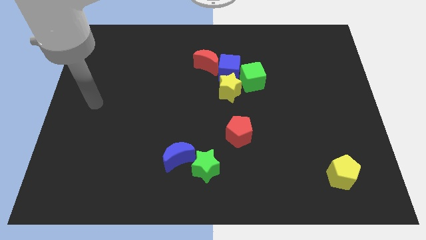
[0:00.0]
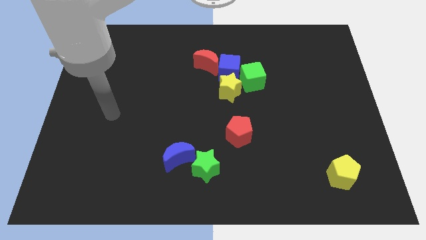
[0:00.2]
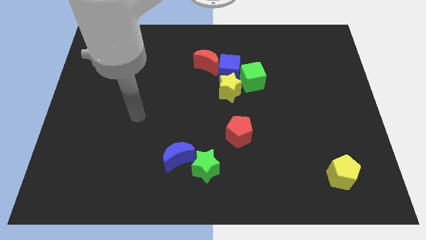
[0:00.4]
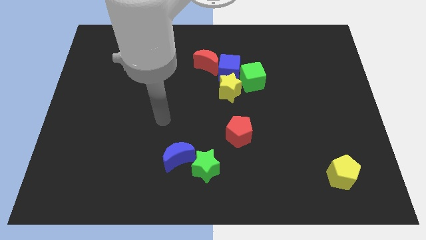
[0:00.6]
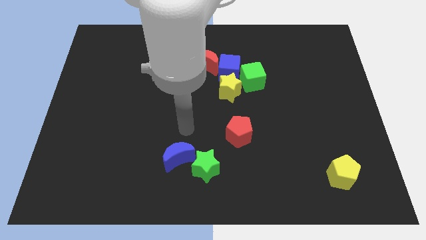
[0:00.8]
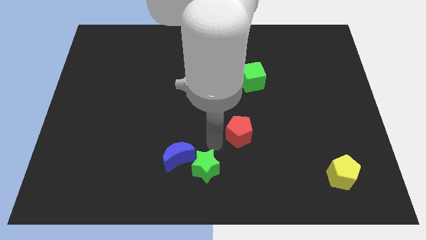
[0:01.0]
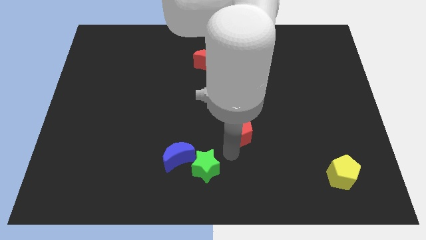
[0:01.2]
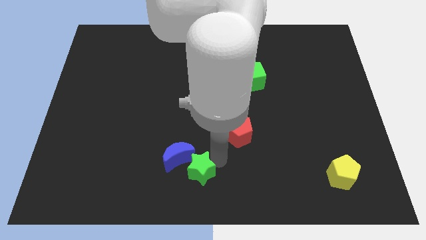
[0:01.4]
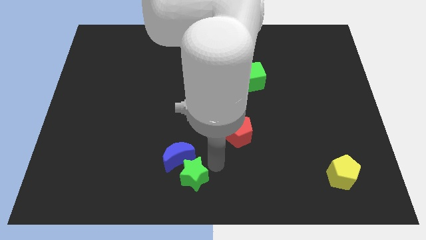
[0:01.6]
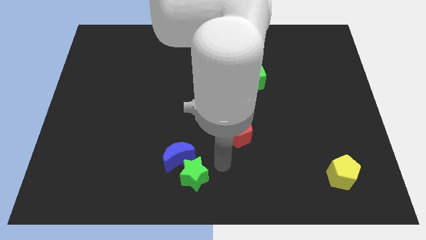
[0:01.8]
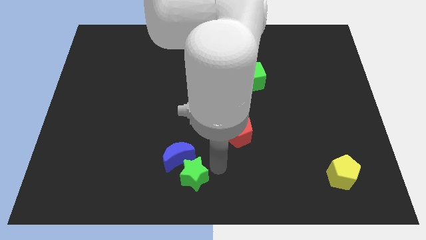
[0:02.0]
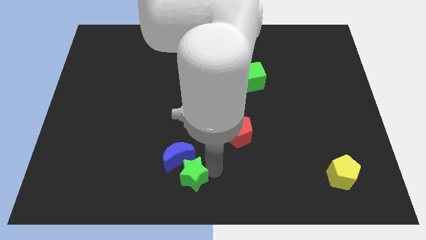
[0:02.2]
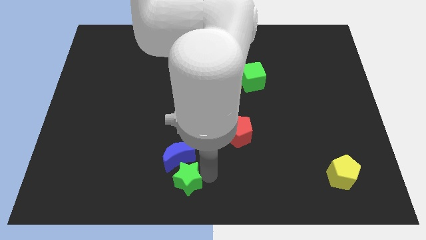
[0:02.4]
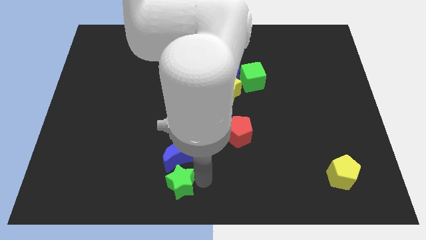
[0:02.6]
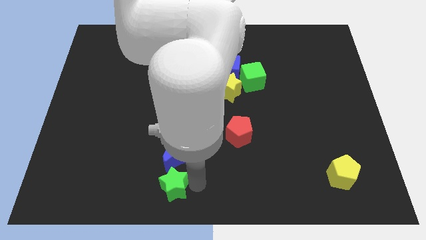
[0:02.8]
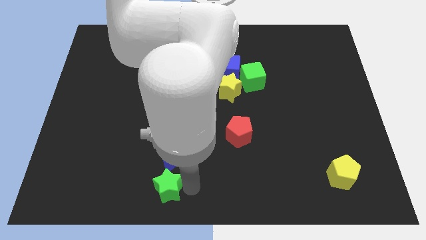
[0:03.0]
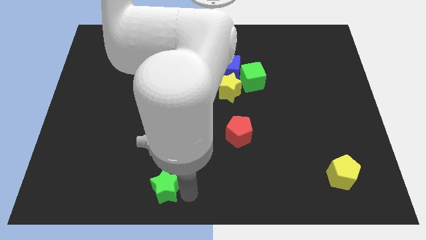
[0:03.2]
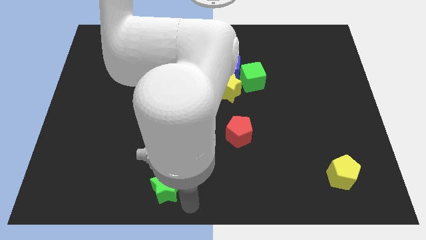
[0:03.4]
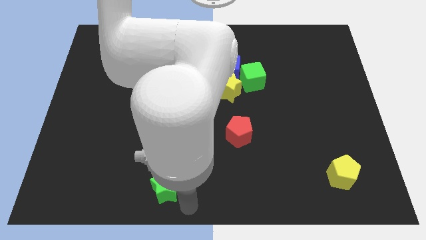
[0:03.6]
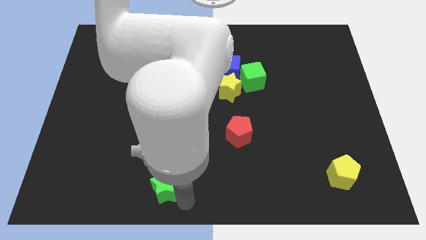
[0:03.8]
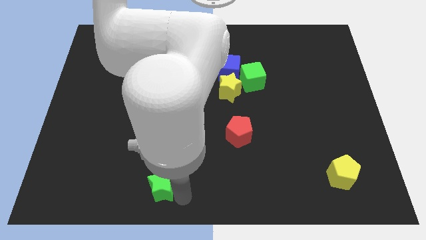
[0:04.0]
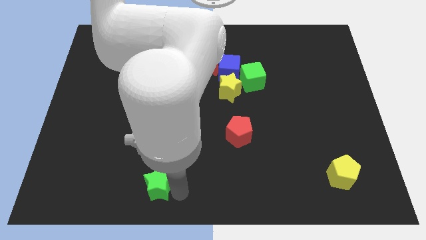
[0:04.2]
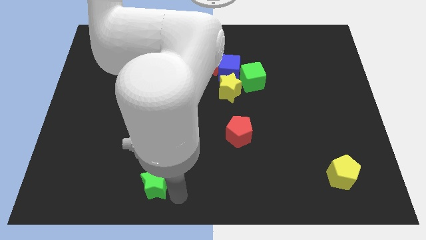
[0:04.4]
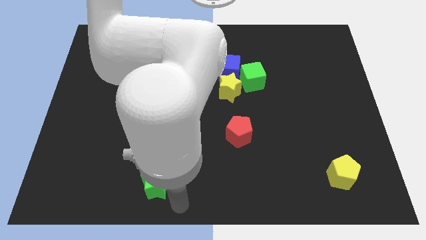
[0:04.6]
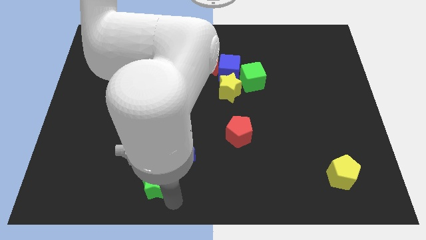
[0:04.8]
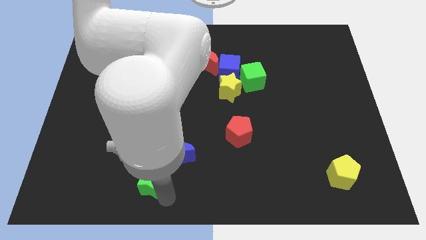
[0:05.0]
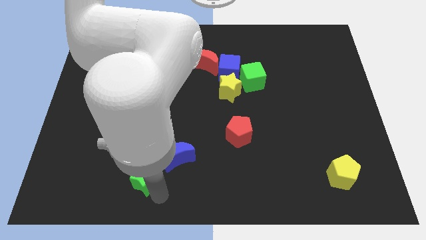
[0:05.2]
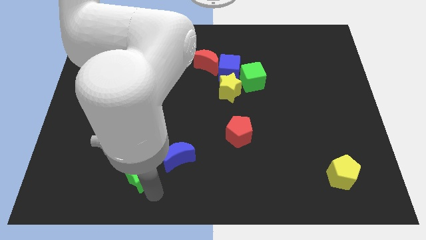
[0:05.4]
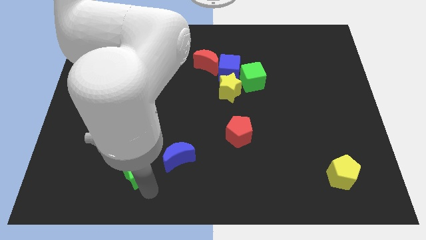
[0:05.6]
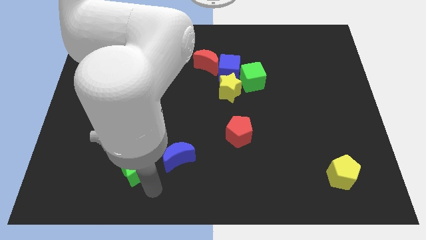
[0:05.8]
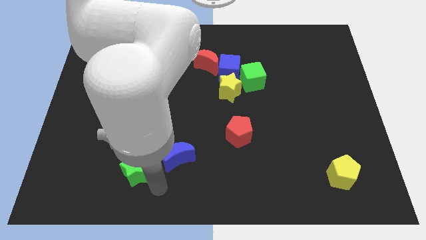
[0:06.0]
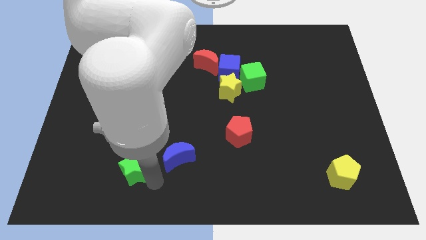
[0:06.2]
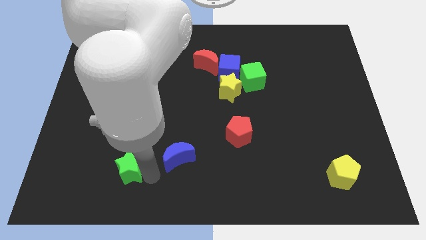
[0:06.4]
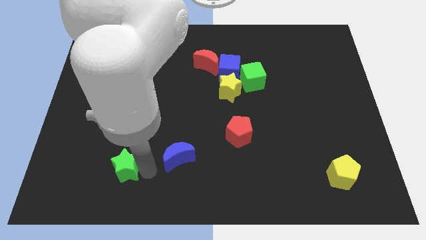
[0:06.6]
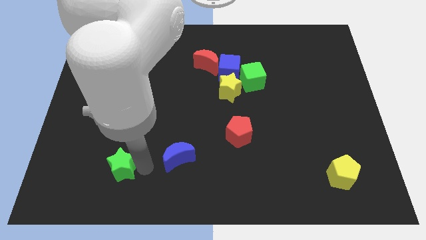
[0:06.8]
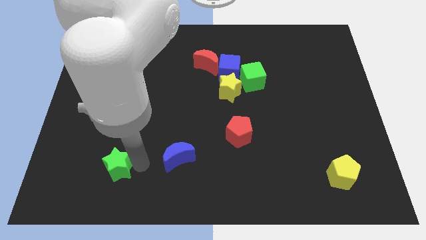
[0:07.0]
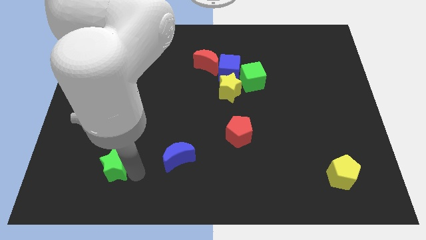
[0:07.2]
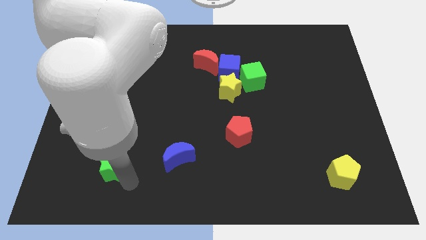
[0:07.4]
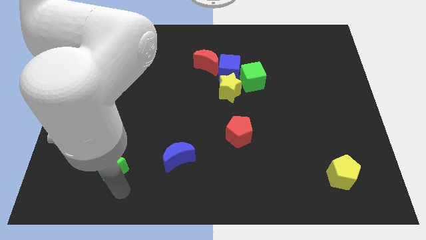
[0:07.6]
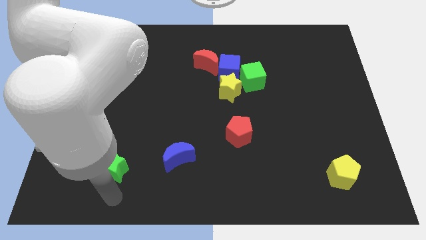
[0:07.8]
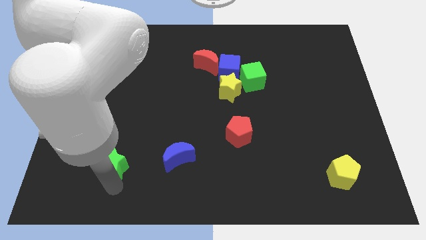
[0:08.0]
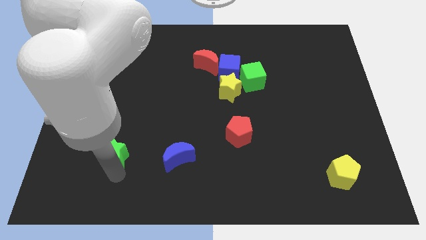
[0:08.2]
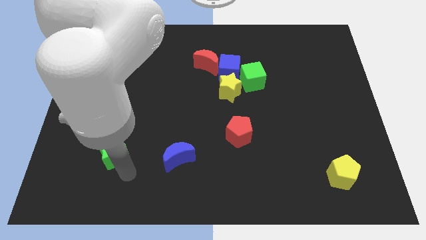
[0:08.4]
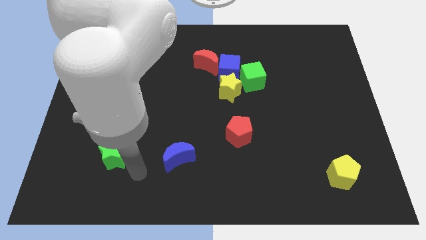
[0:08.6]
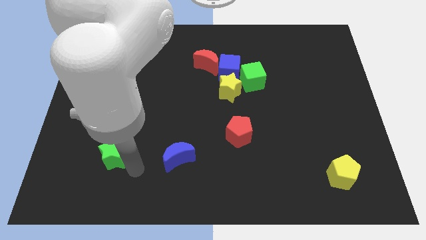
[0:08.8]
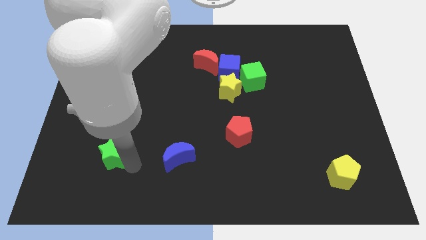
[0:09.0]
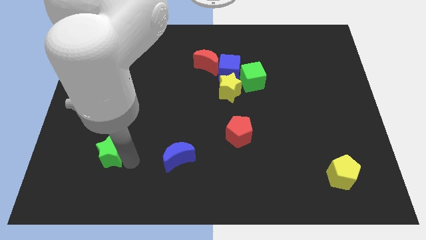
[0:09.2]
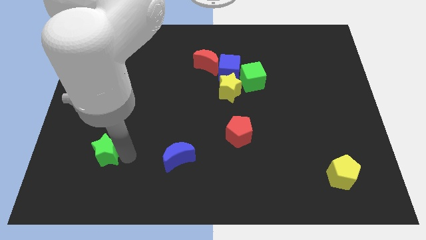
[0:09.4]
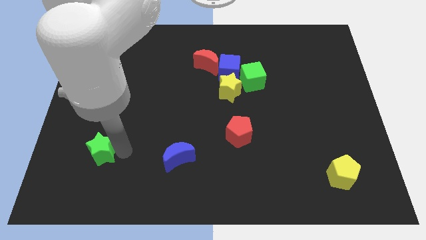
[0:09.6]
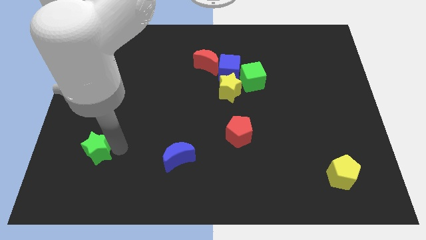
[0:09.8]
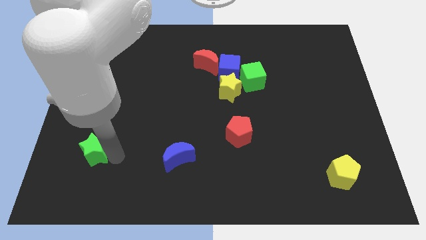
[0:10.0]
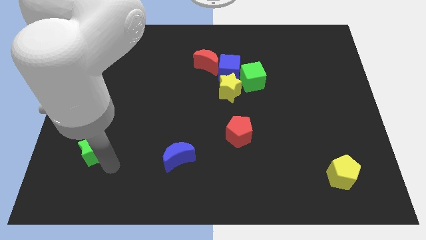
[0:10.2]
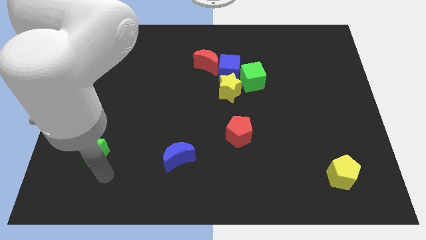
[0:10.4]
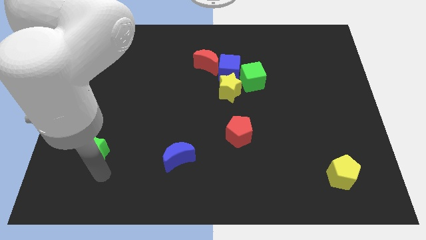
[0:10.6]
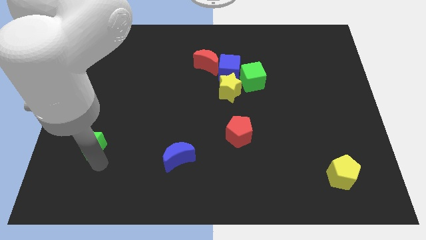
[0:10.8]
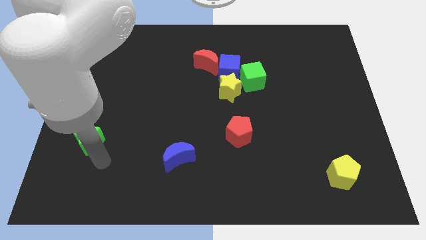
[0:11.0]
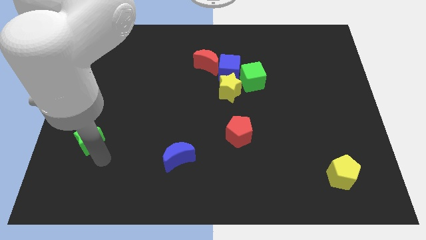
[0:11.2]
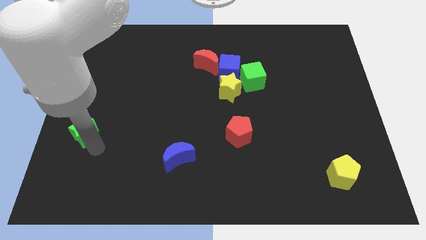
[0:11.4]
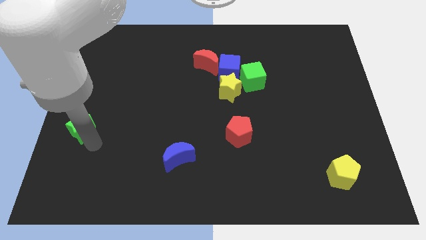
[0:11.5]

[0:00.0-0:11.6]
push the green star to the left side of the board

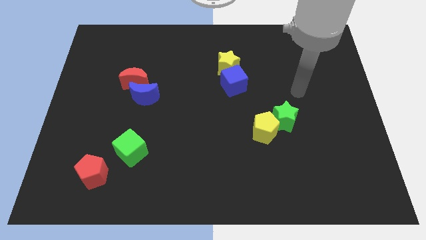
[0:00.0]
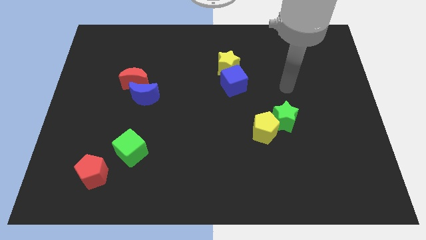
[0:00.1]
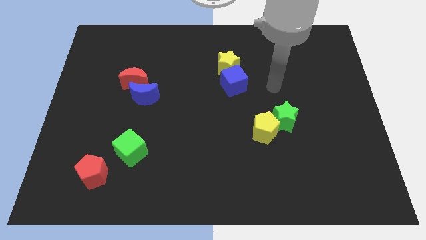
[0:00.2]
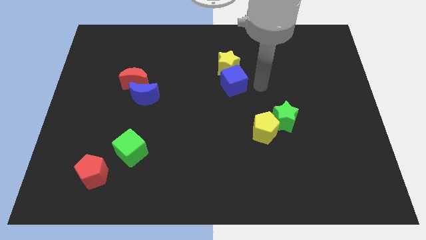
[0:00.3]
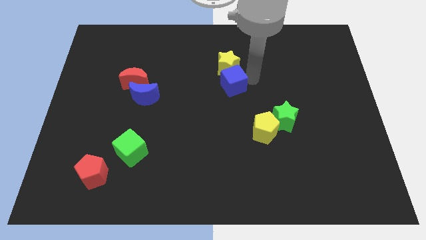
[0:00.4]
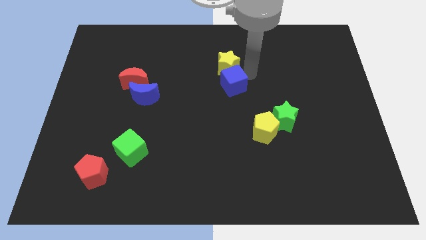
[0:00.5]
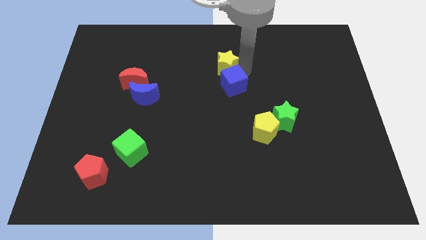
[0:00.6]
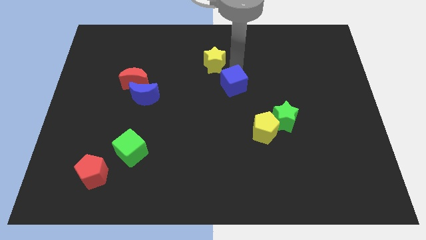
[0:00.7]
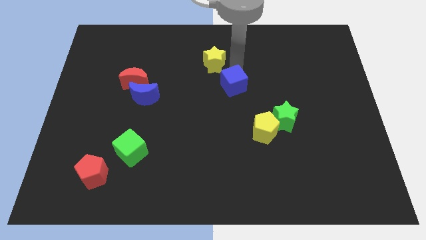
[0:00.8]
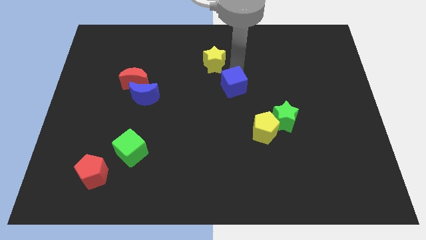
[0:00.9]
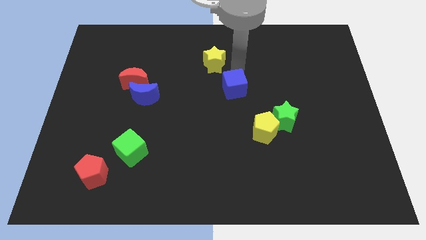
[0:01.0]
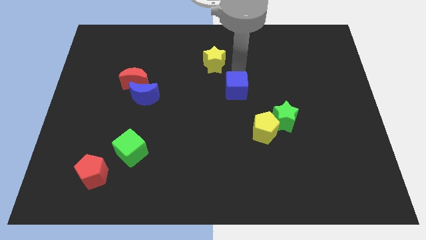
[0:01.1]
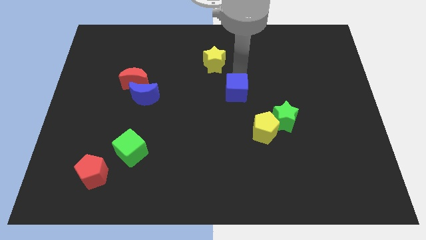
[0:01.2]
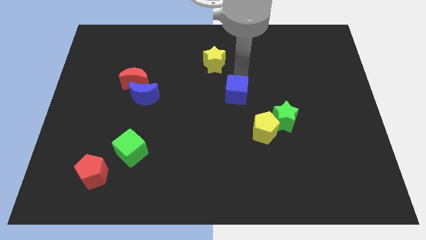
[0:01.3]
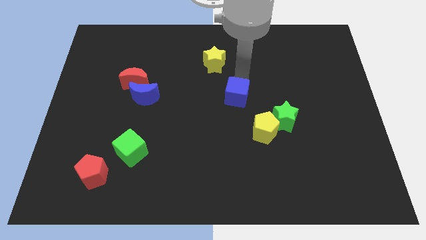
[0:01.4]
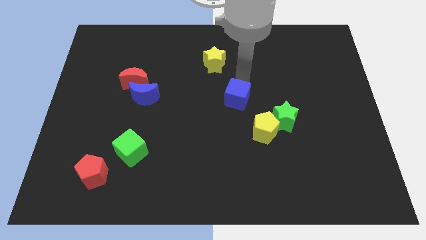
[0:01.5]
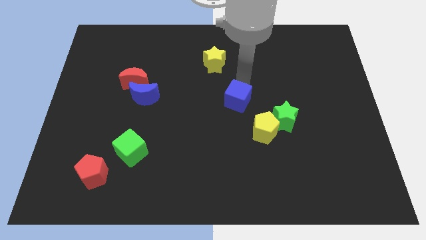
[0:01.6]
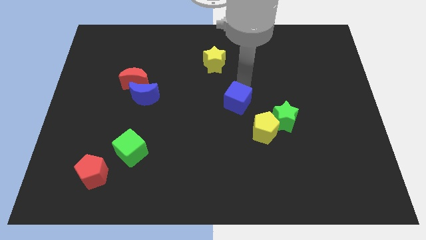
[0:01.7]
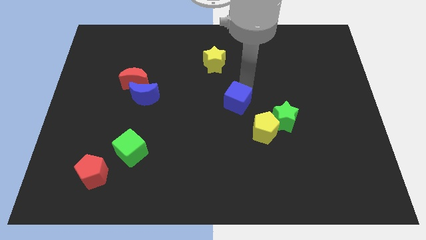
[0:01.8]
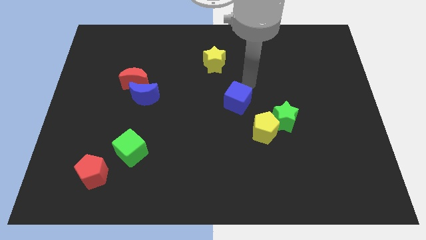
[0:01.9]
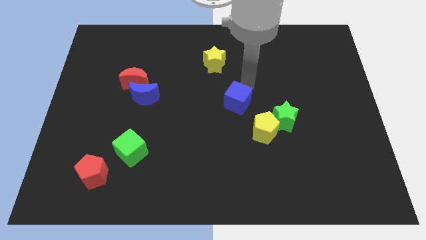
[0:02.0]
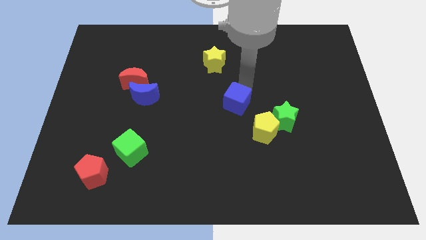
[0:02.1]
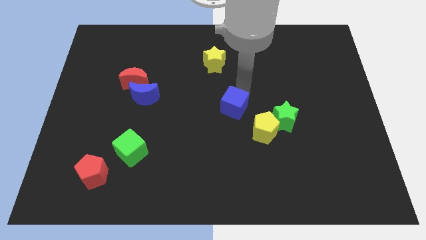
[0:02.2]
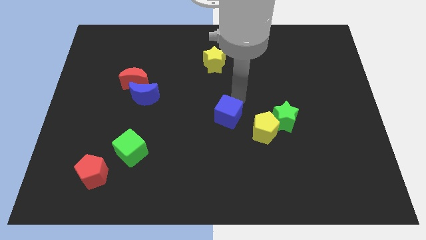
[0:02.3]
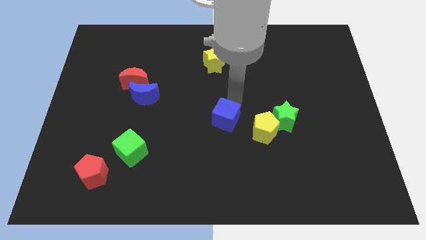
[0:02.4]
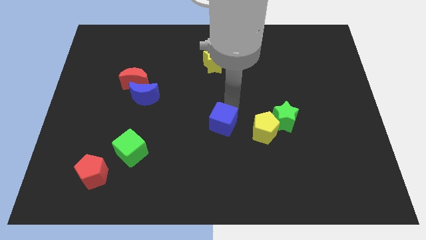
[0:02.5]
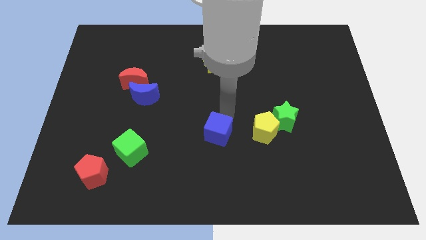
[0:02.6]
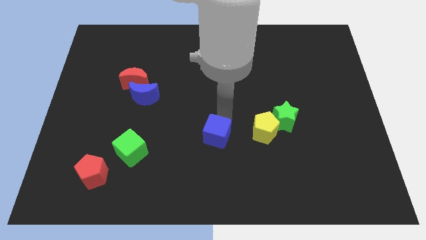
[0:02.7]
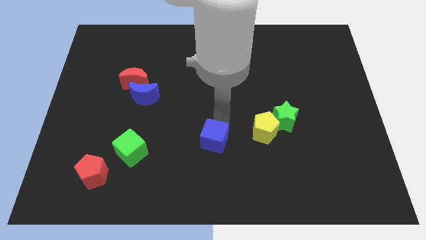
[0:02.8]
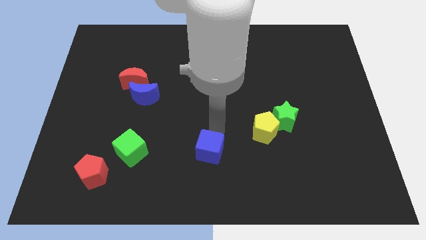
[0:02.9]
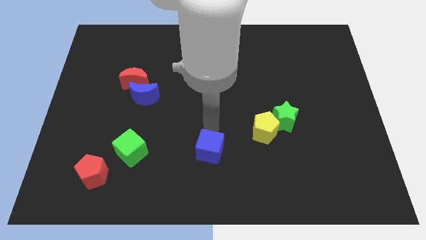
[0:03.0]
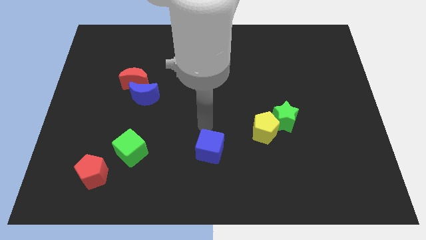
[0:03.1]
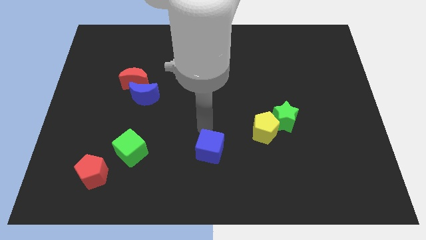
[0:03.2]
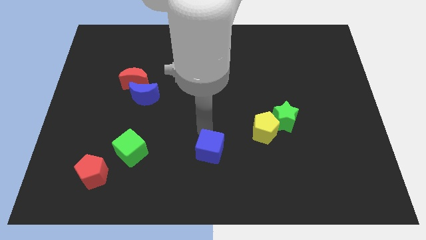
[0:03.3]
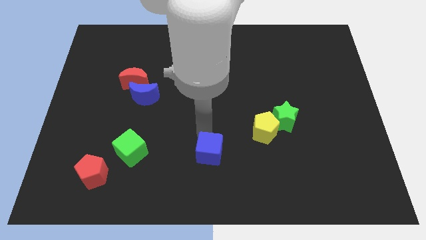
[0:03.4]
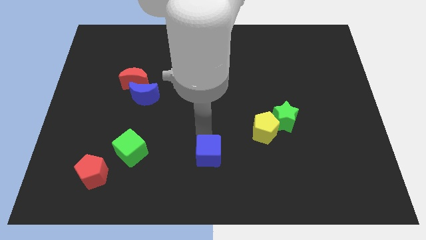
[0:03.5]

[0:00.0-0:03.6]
move the blue cube to the bottom
